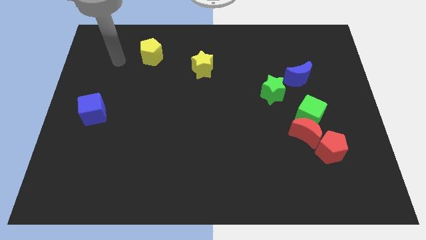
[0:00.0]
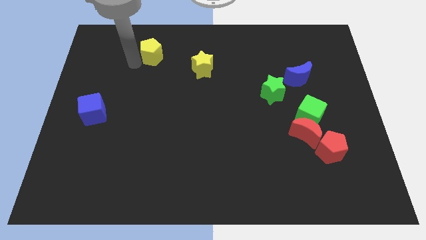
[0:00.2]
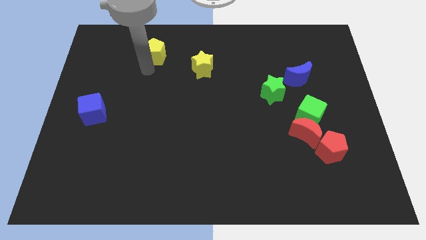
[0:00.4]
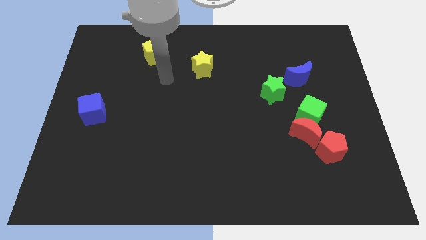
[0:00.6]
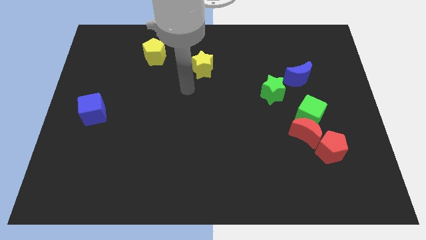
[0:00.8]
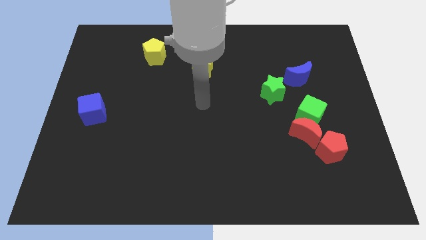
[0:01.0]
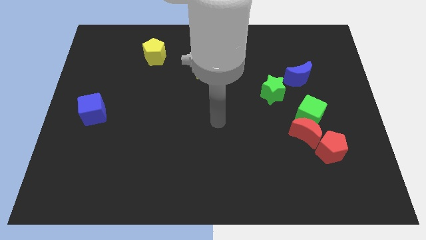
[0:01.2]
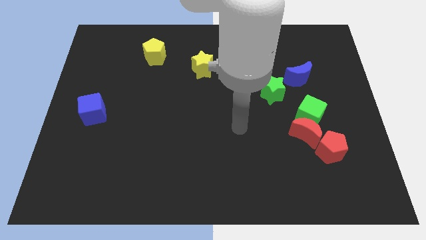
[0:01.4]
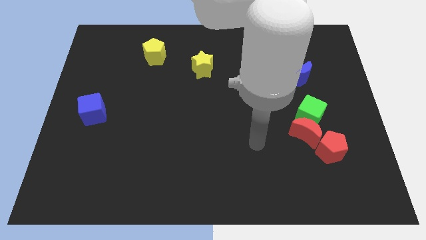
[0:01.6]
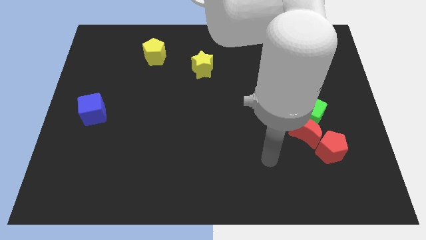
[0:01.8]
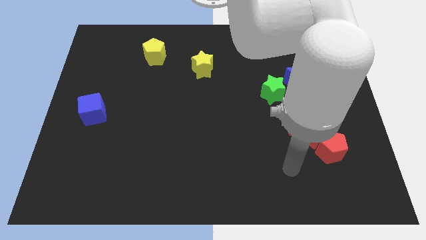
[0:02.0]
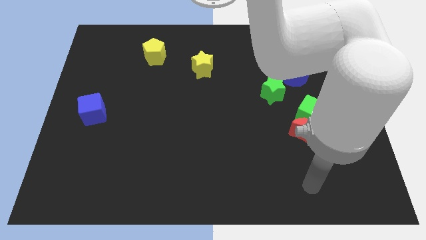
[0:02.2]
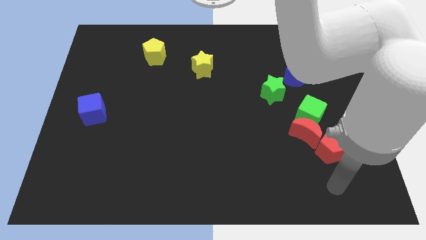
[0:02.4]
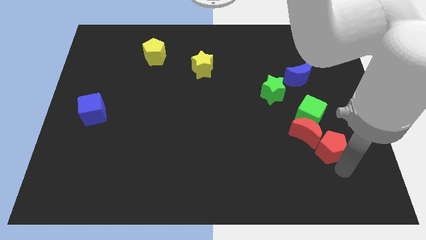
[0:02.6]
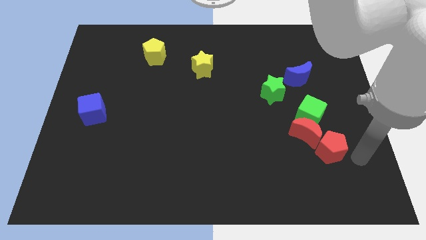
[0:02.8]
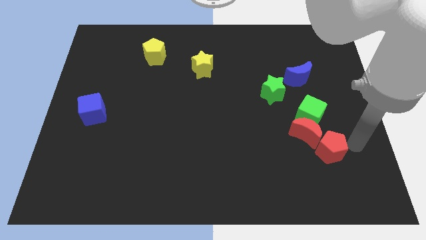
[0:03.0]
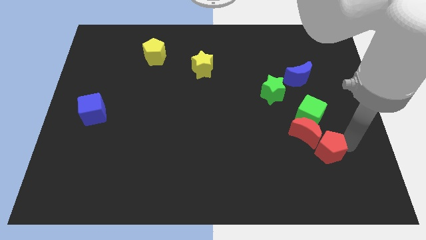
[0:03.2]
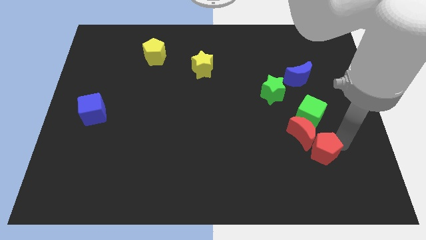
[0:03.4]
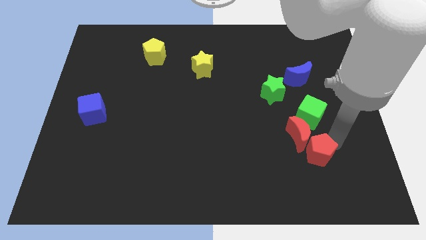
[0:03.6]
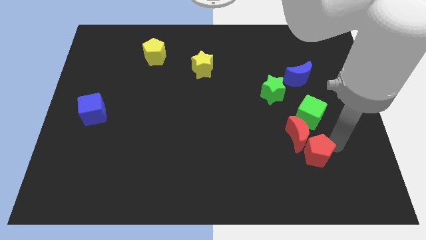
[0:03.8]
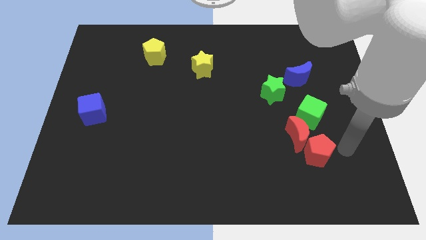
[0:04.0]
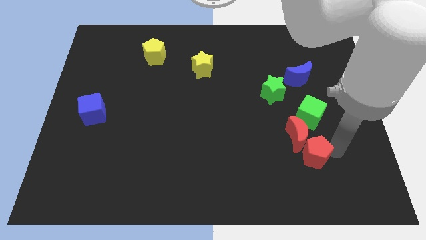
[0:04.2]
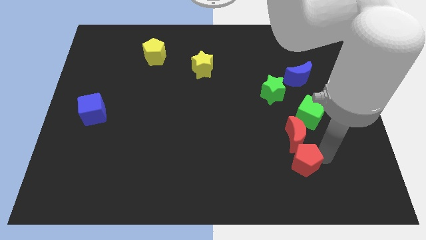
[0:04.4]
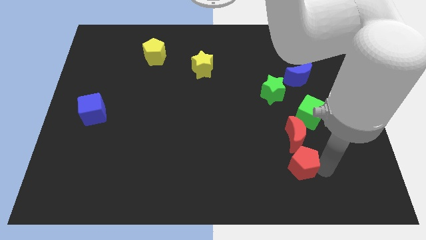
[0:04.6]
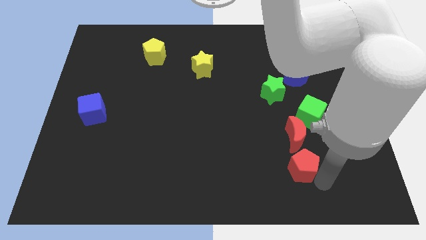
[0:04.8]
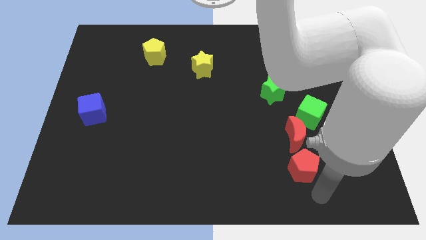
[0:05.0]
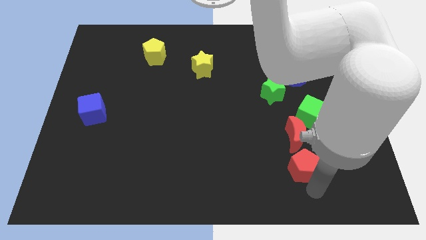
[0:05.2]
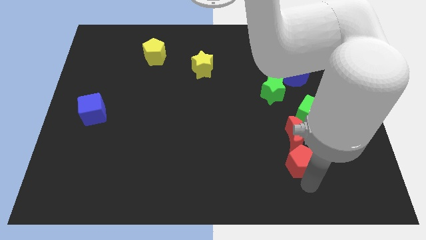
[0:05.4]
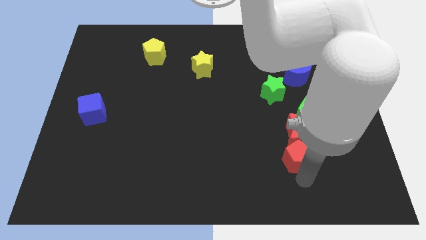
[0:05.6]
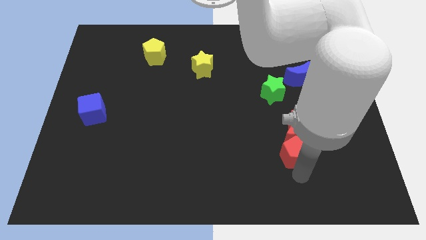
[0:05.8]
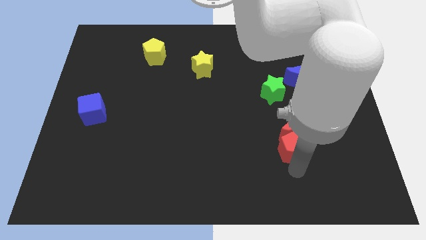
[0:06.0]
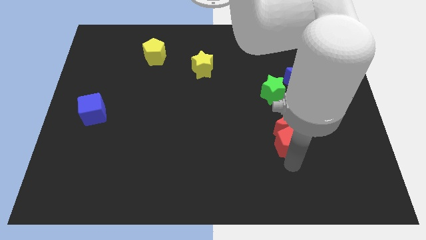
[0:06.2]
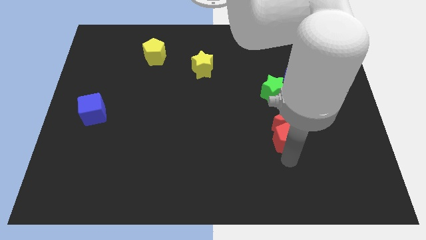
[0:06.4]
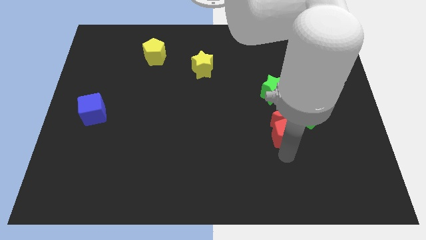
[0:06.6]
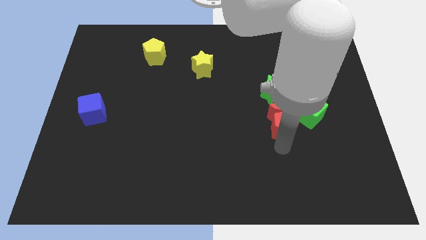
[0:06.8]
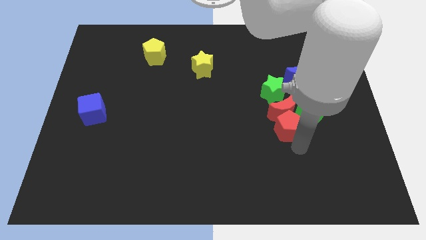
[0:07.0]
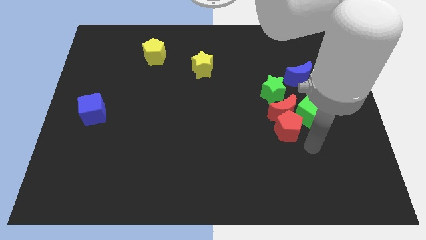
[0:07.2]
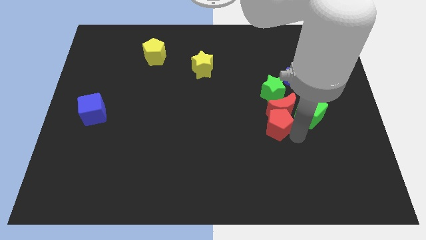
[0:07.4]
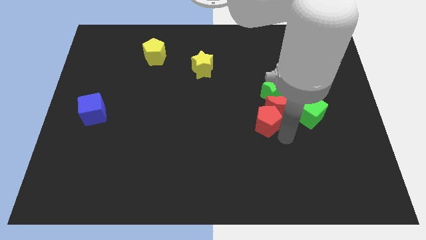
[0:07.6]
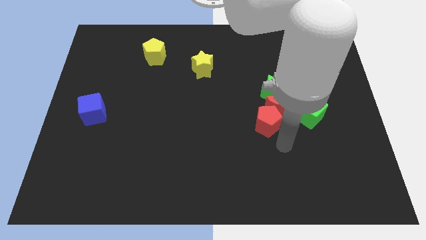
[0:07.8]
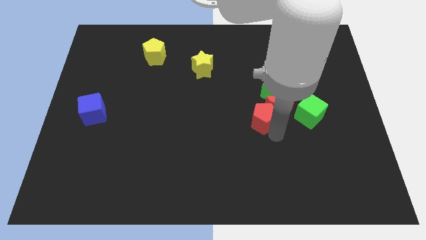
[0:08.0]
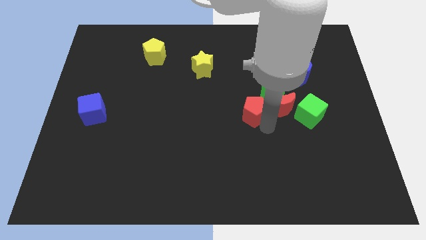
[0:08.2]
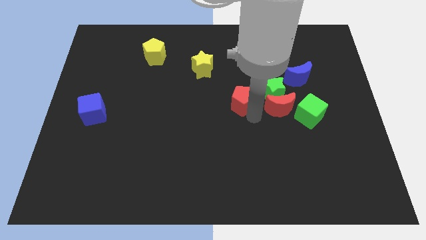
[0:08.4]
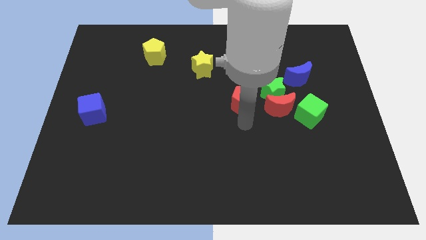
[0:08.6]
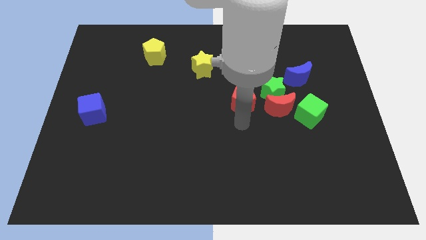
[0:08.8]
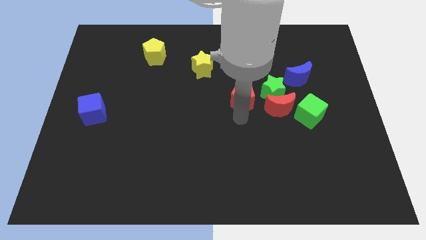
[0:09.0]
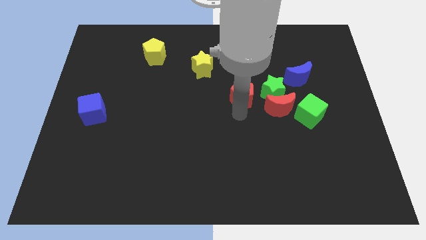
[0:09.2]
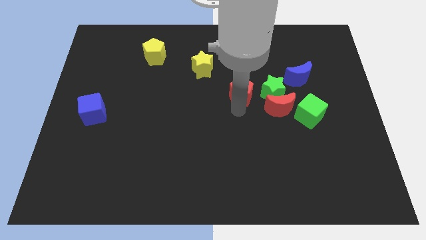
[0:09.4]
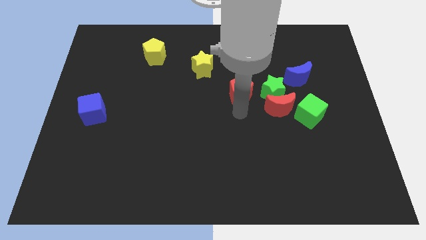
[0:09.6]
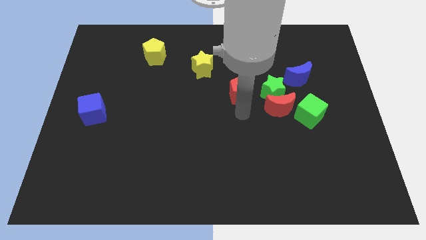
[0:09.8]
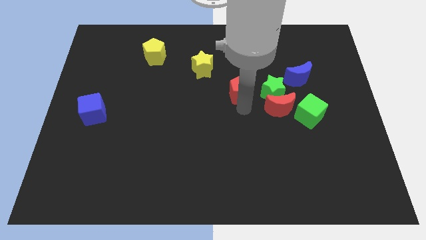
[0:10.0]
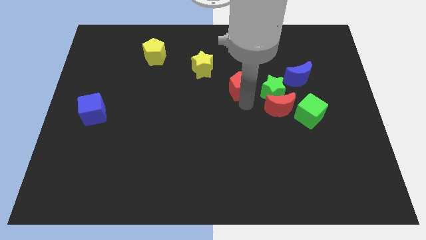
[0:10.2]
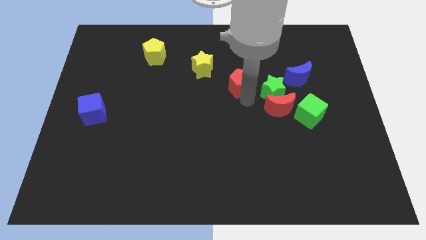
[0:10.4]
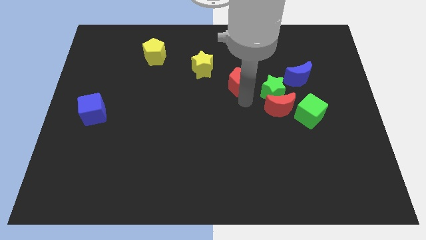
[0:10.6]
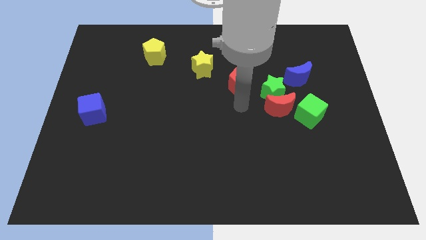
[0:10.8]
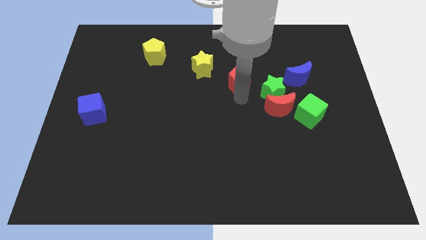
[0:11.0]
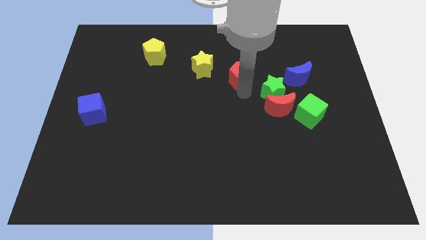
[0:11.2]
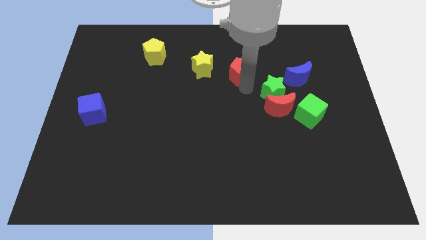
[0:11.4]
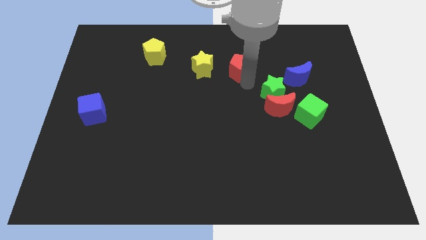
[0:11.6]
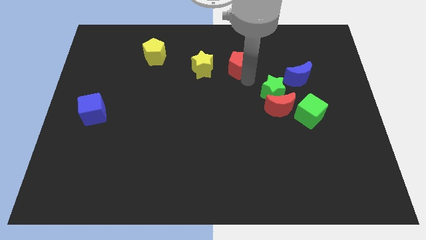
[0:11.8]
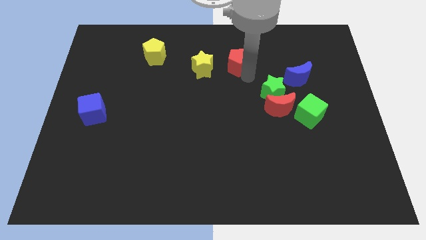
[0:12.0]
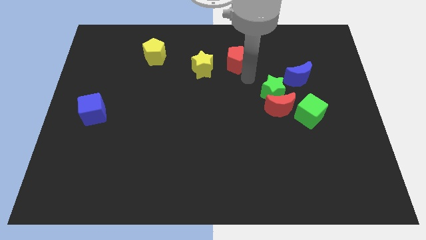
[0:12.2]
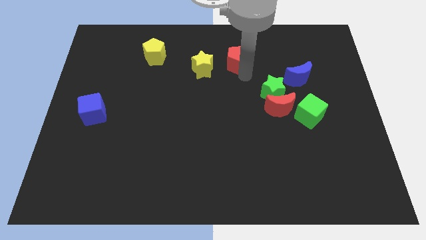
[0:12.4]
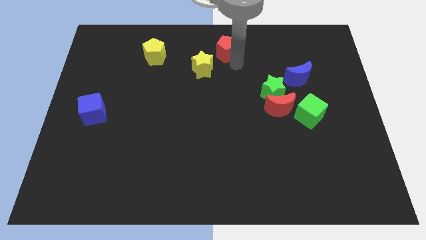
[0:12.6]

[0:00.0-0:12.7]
put the red pentagon to the top side
